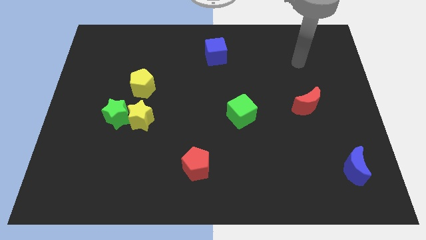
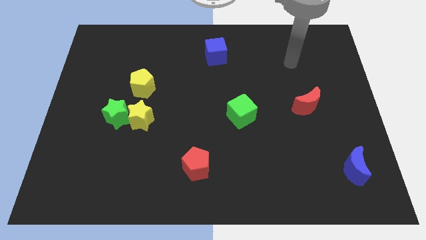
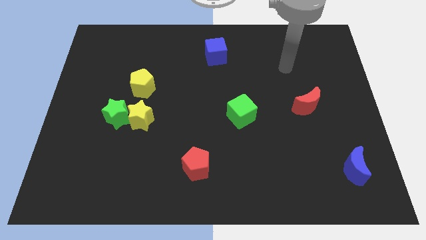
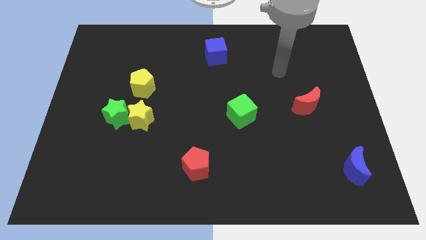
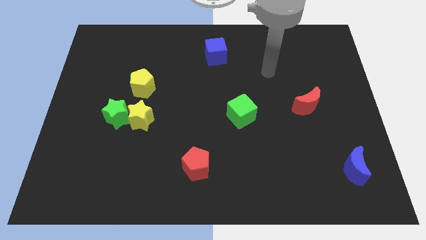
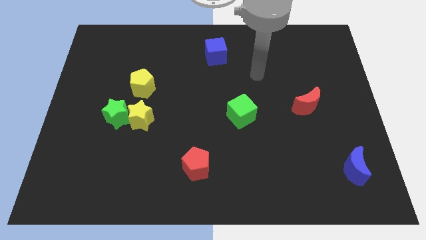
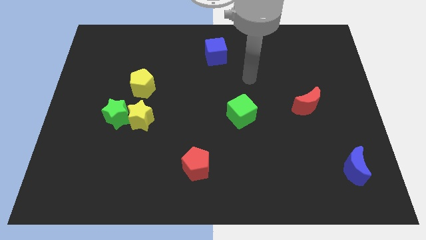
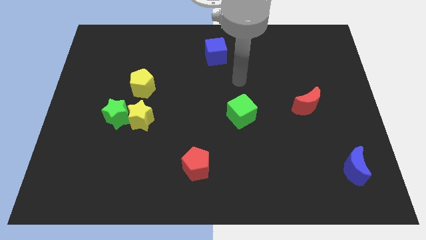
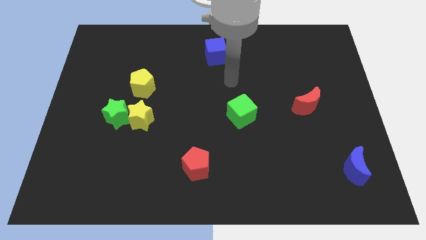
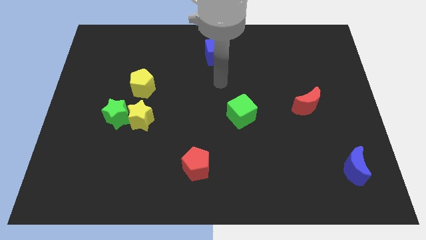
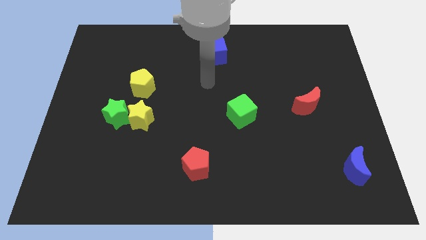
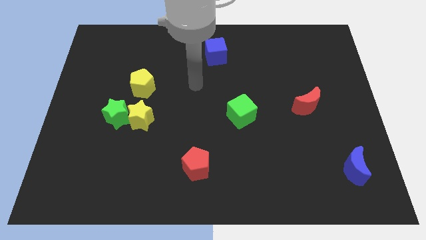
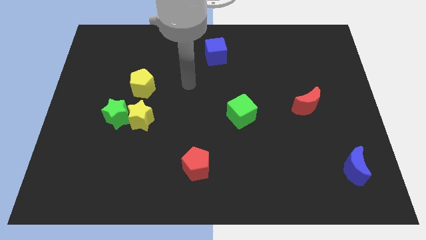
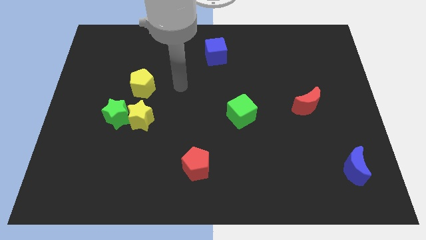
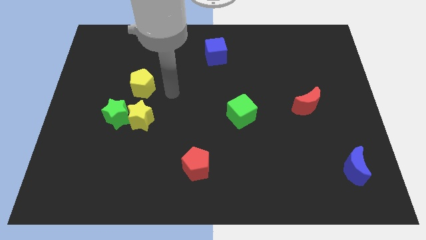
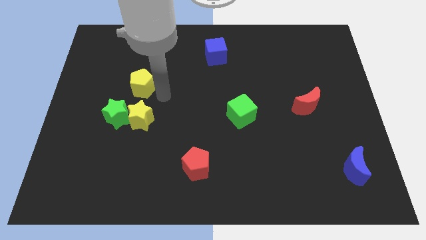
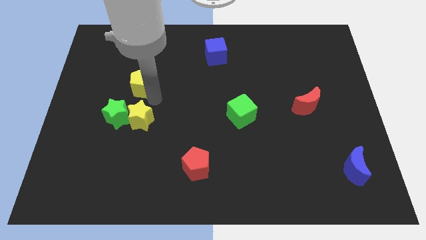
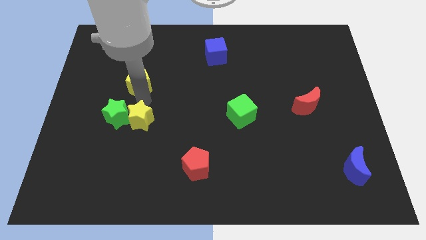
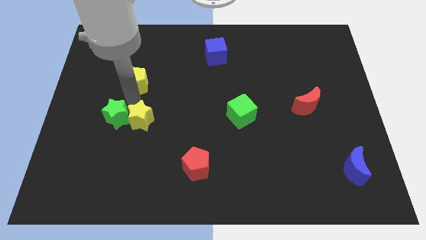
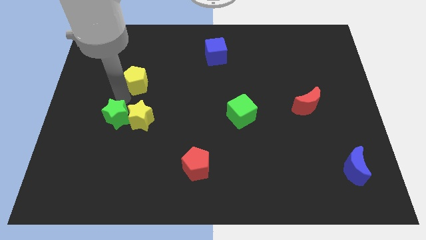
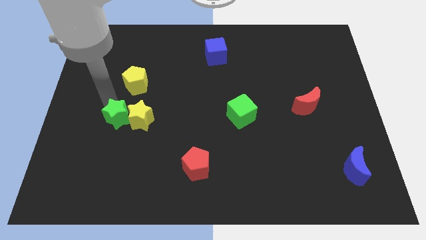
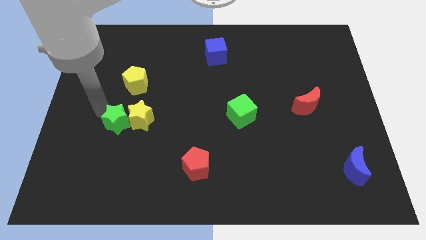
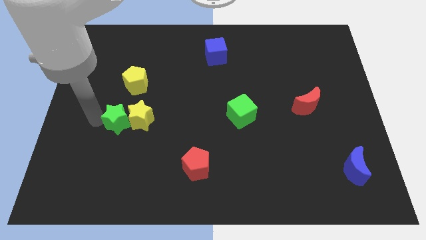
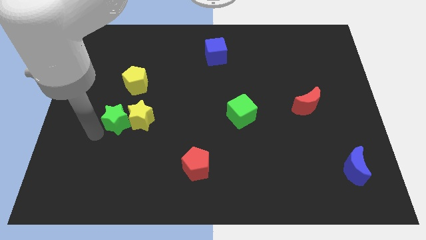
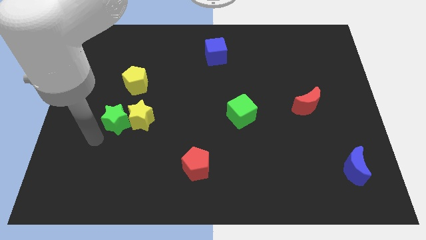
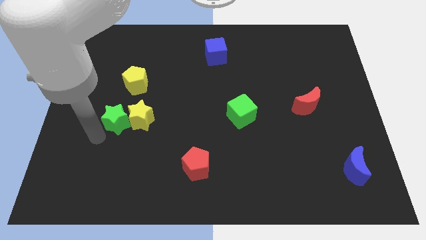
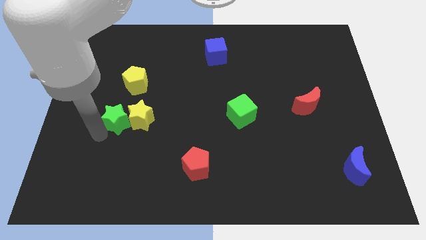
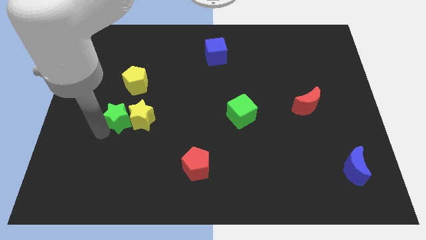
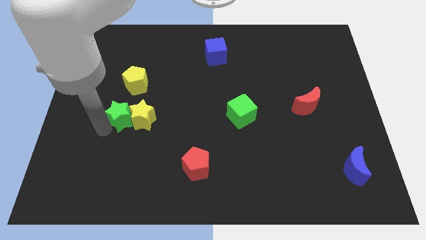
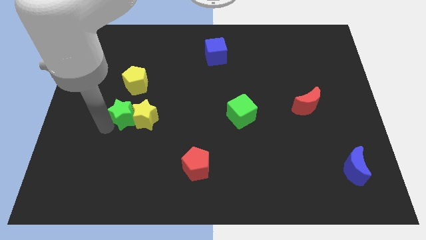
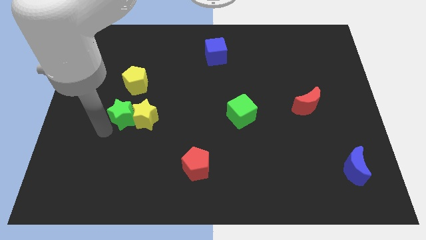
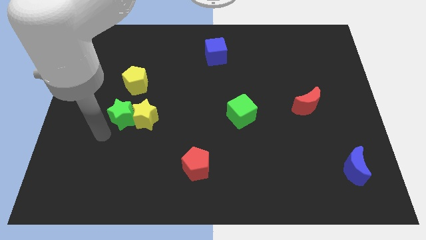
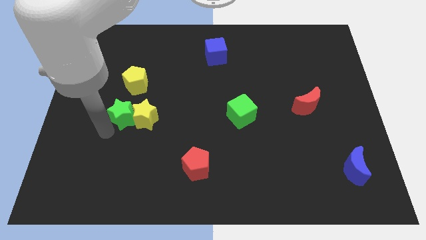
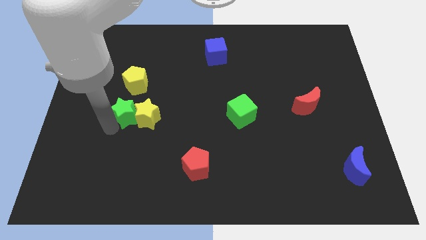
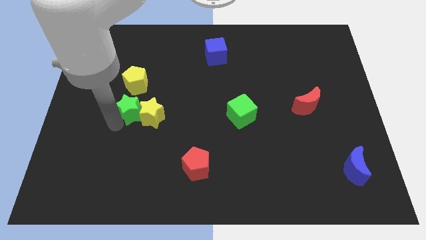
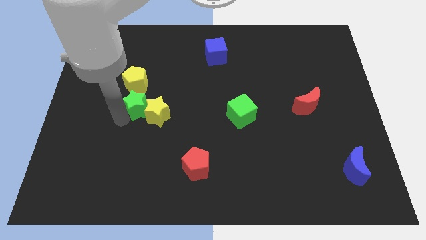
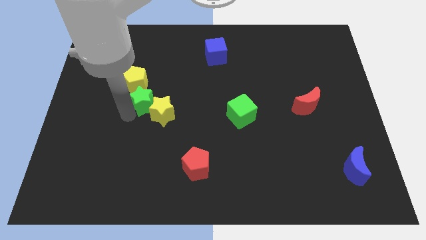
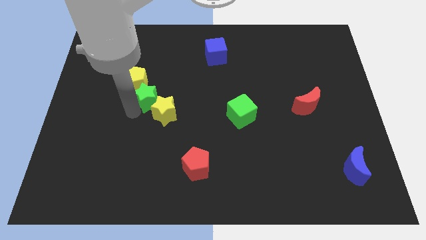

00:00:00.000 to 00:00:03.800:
move the green star diagonally up and to the right a little bit

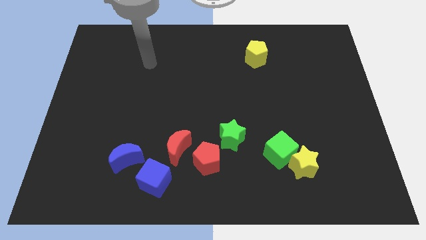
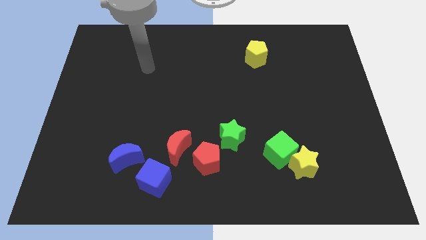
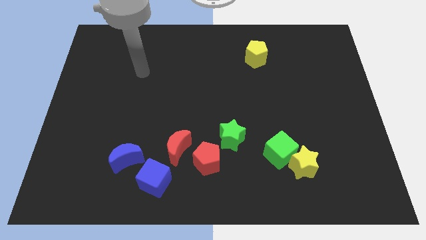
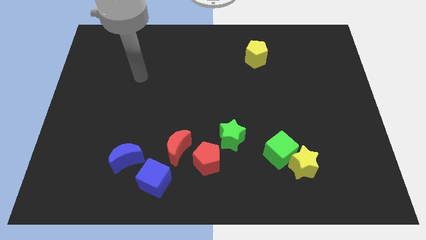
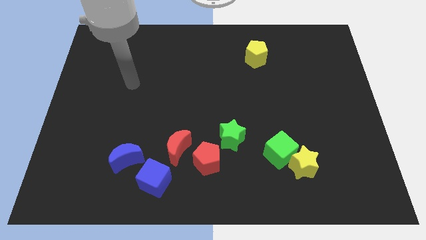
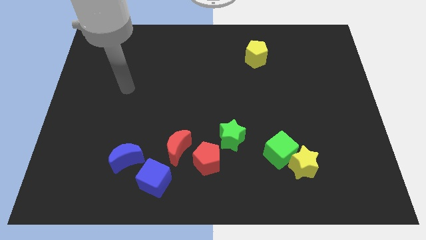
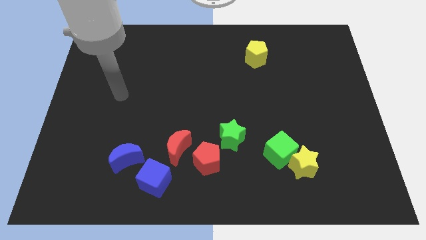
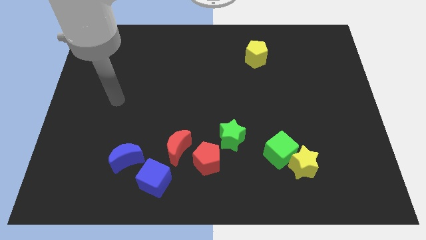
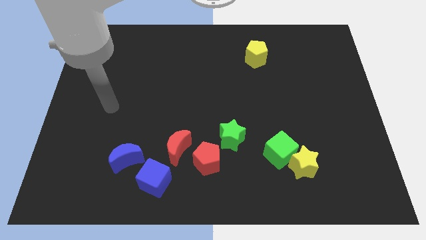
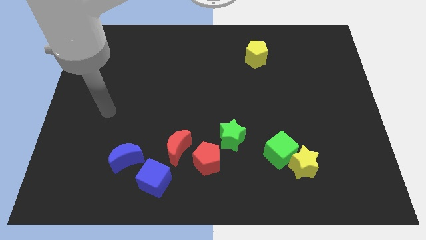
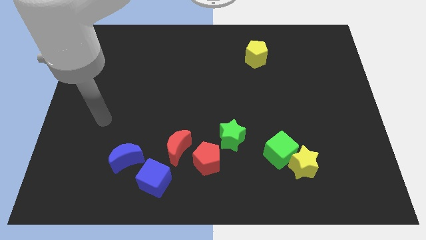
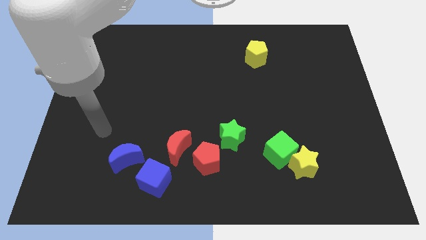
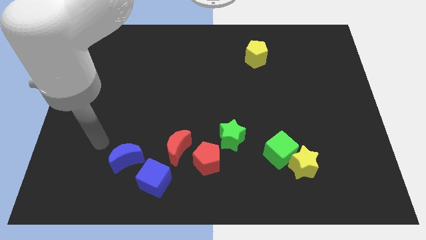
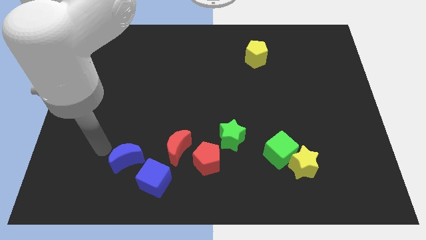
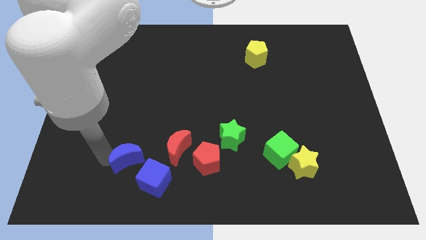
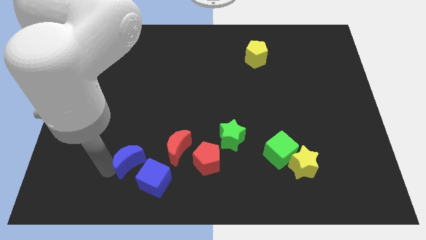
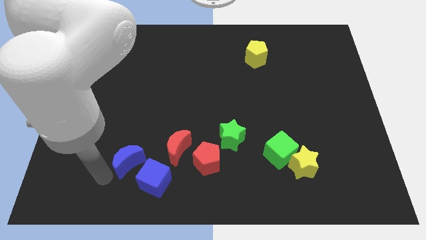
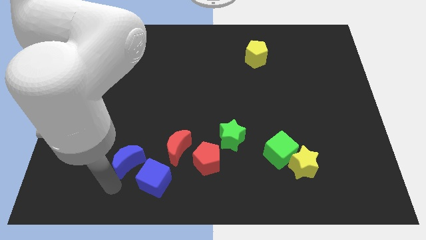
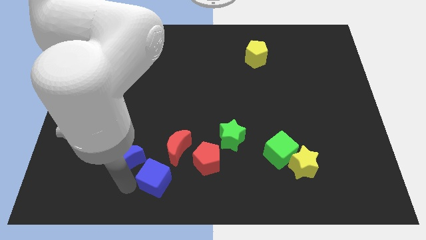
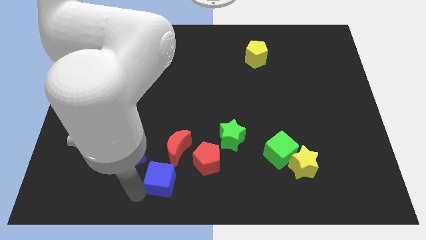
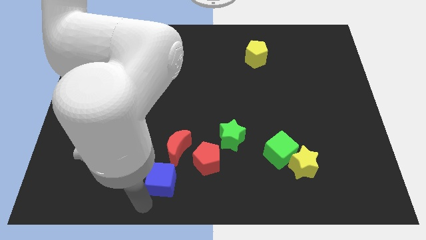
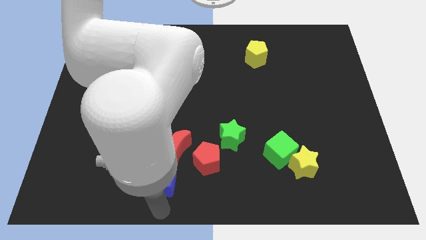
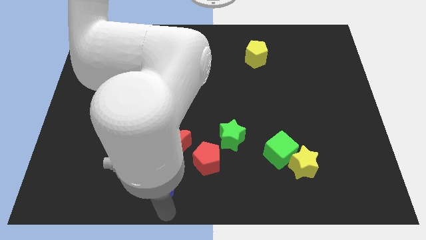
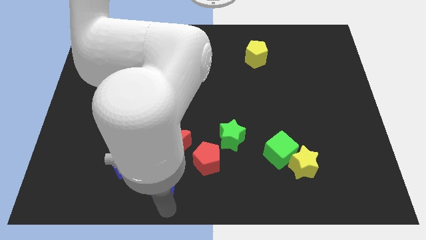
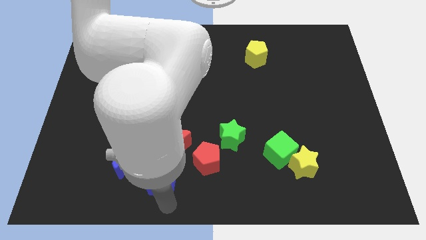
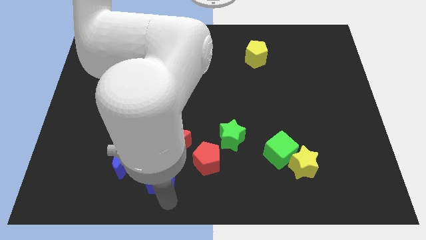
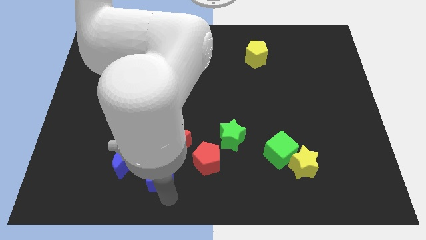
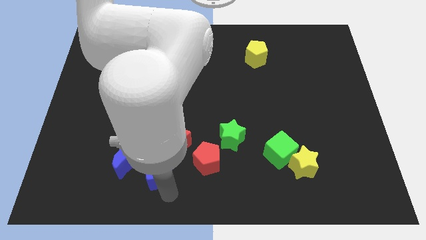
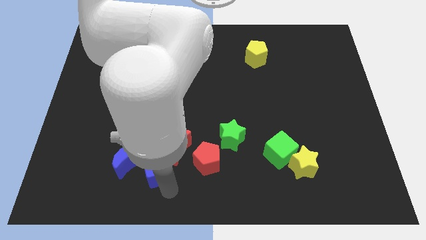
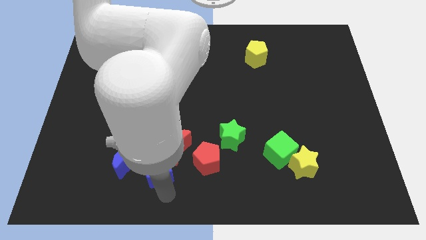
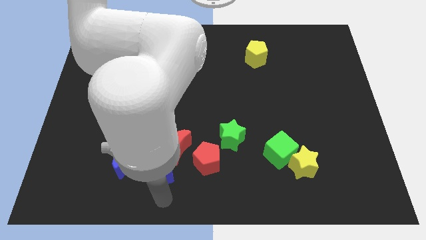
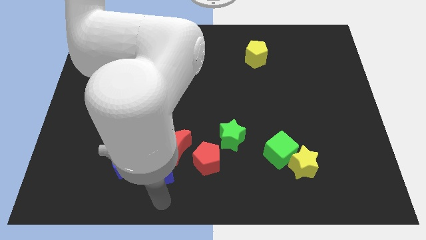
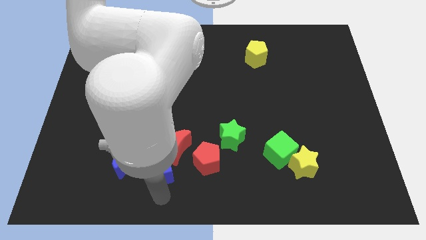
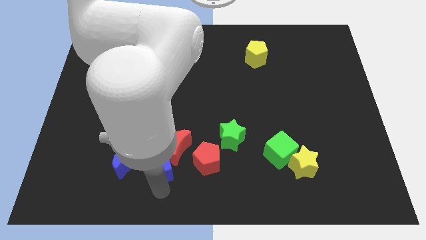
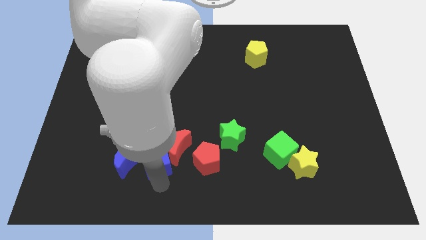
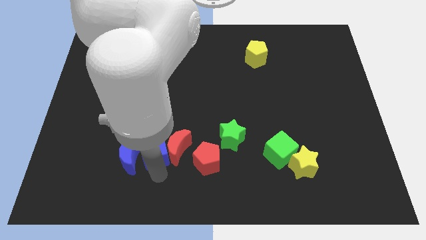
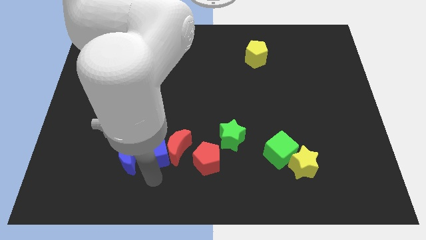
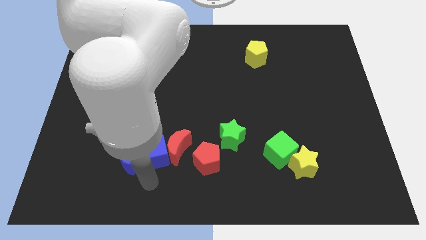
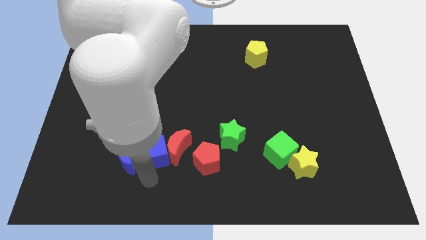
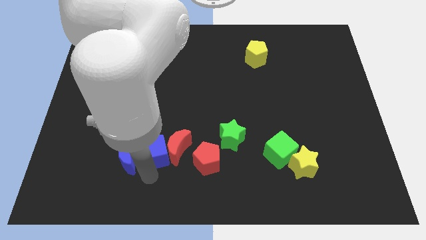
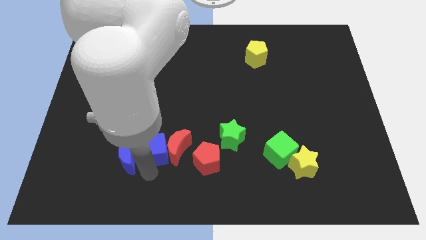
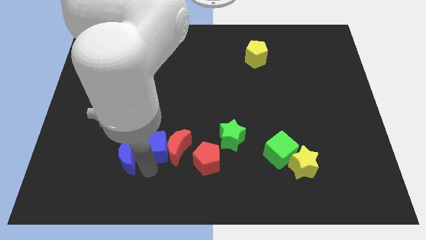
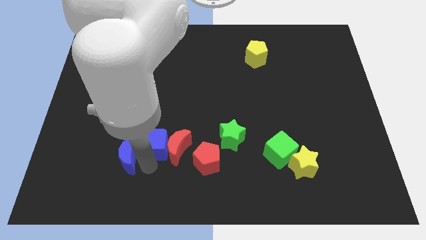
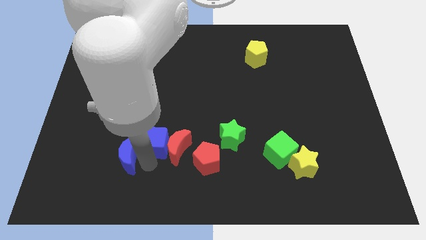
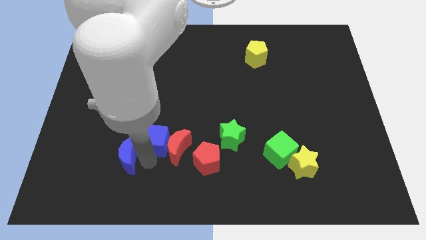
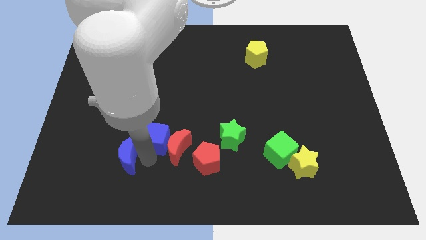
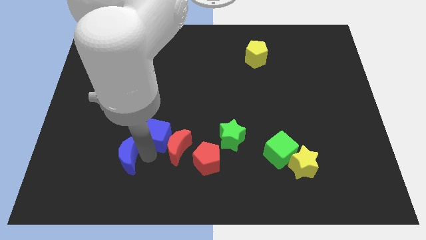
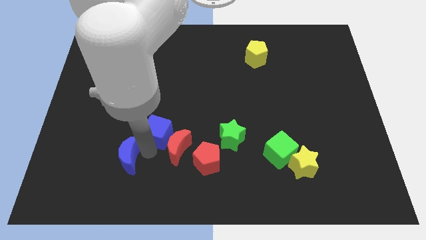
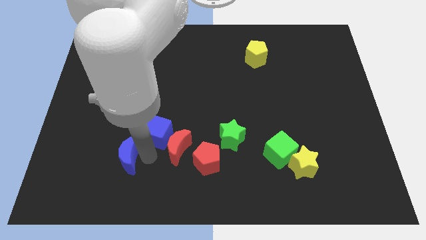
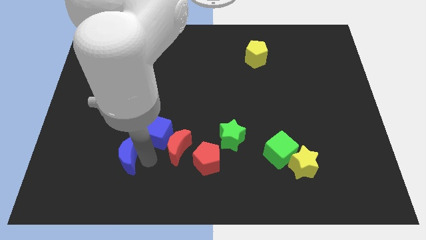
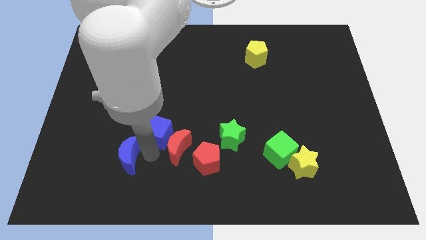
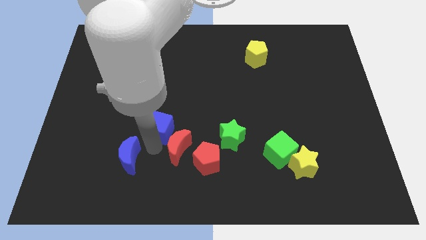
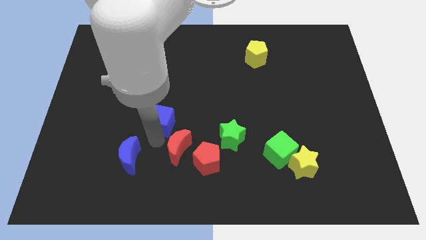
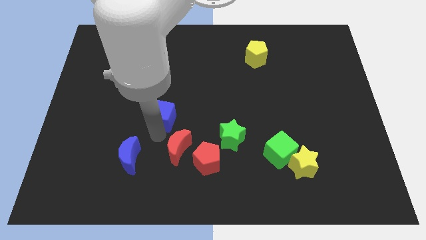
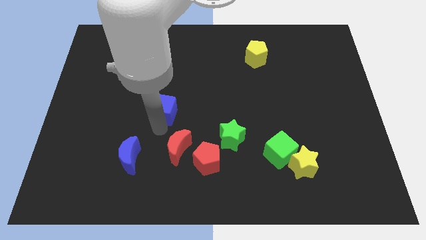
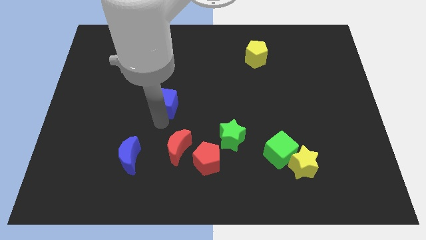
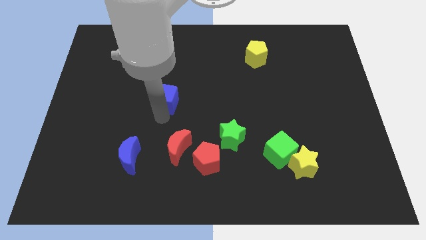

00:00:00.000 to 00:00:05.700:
move the blue cube upwards
